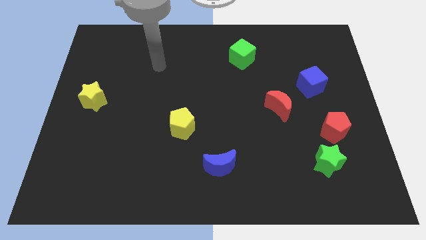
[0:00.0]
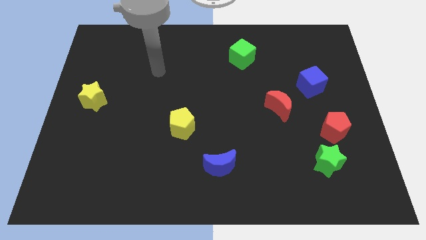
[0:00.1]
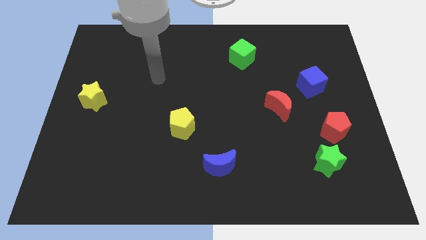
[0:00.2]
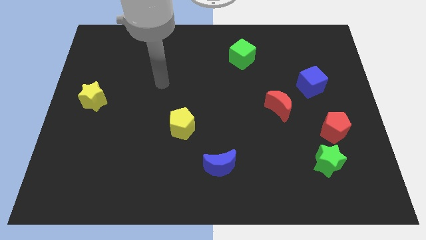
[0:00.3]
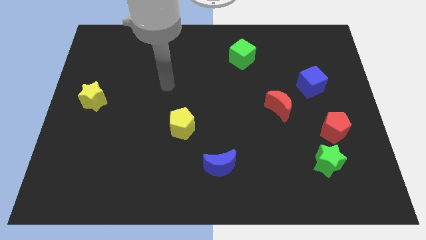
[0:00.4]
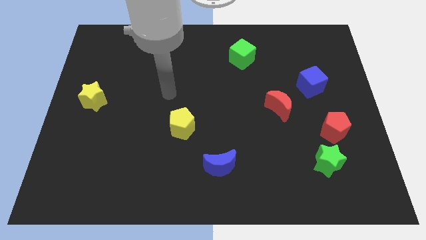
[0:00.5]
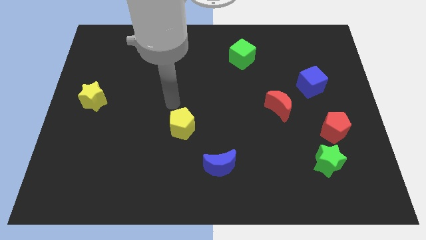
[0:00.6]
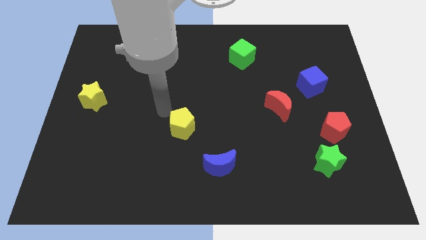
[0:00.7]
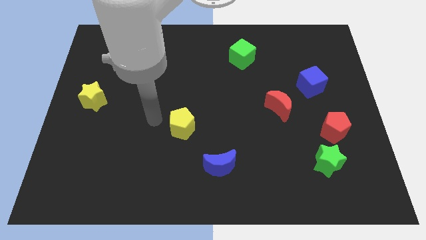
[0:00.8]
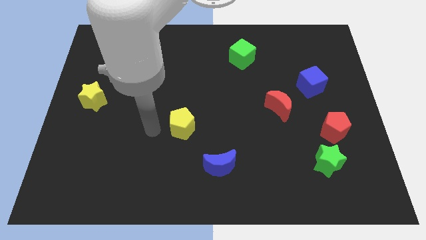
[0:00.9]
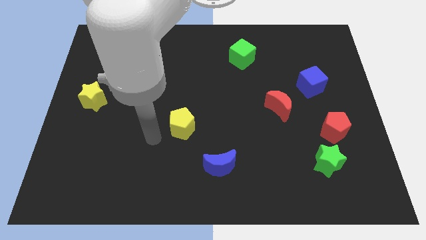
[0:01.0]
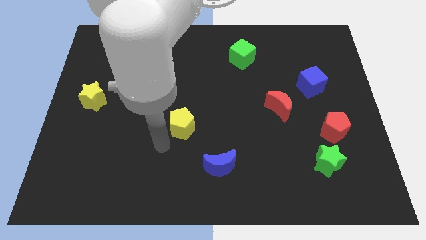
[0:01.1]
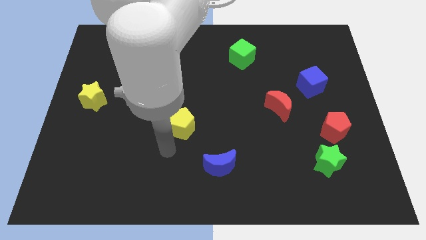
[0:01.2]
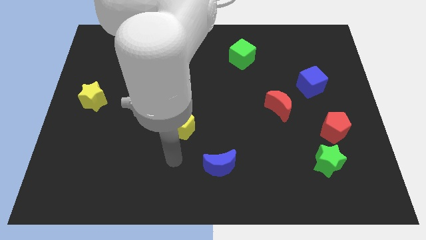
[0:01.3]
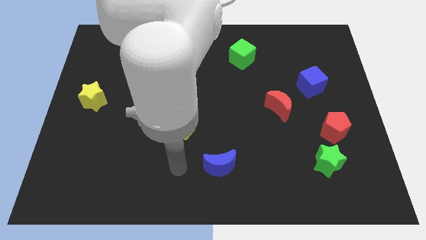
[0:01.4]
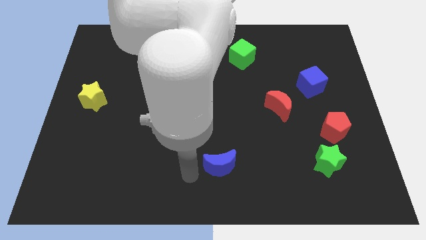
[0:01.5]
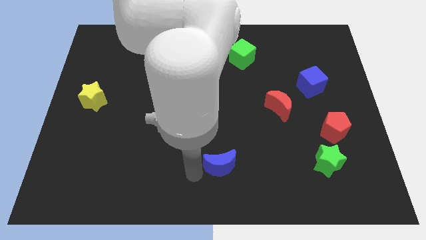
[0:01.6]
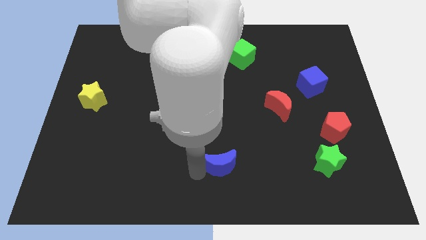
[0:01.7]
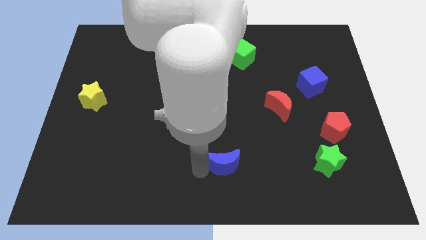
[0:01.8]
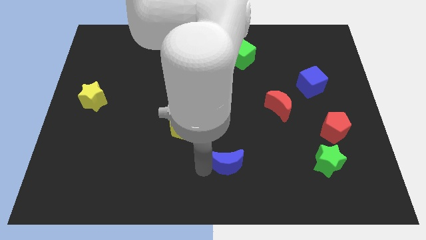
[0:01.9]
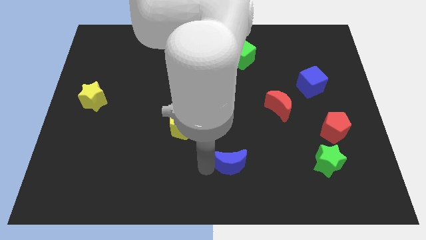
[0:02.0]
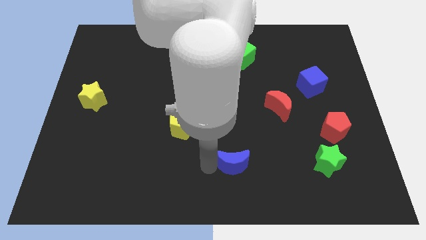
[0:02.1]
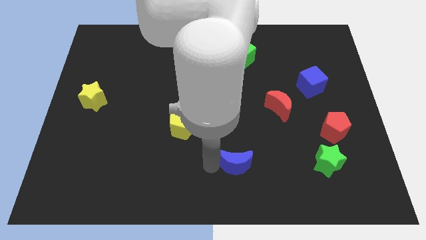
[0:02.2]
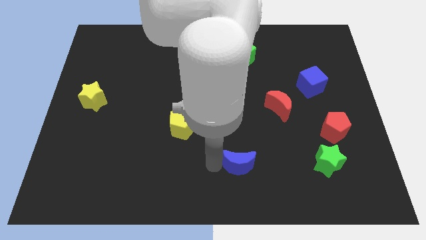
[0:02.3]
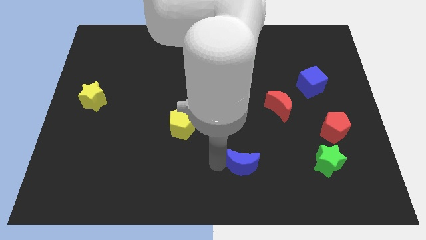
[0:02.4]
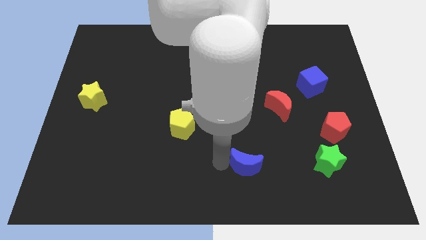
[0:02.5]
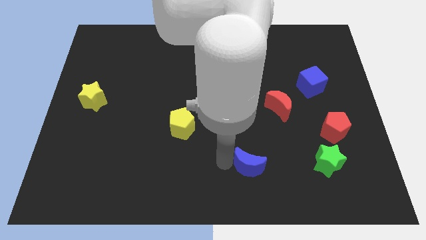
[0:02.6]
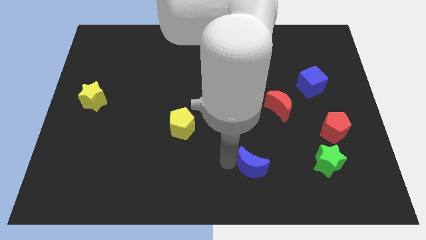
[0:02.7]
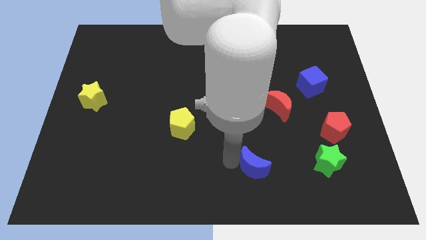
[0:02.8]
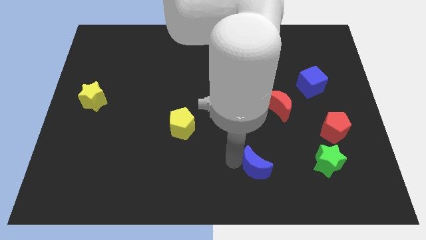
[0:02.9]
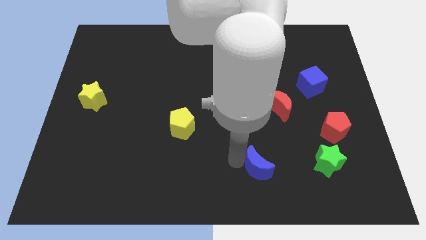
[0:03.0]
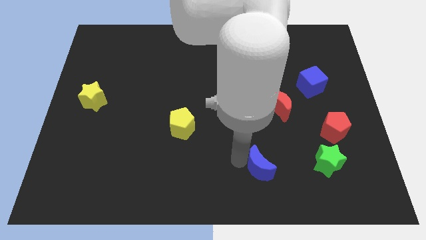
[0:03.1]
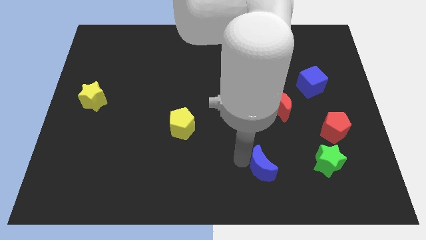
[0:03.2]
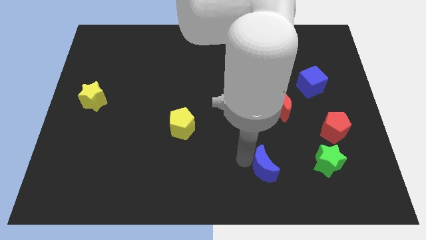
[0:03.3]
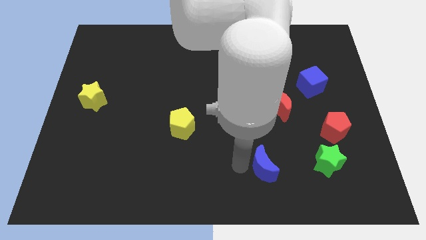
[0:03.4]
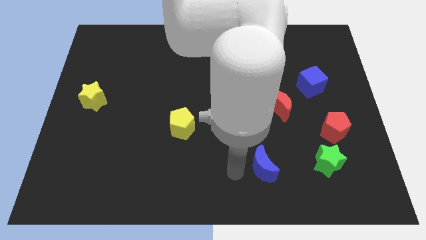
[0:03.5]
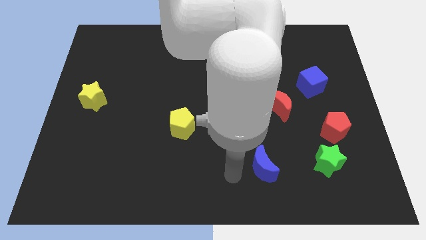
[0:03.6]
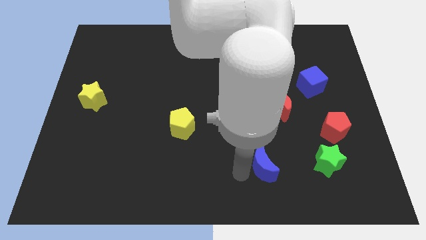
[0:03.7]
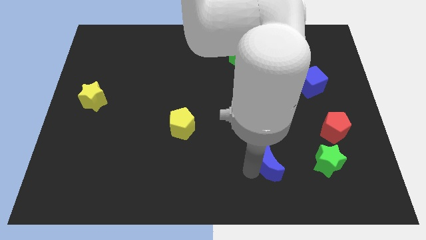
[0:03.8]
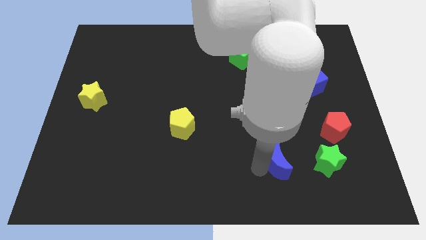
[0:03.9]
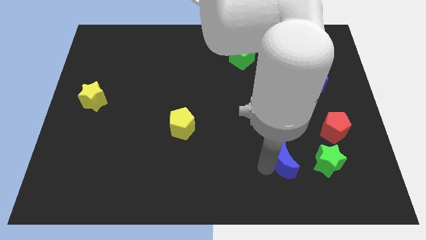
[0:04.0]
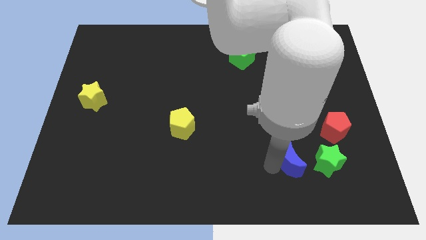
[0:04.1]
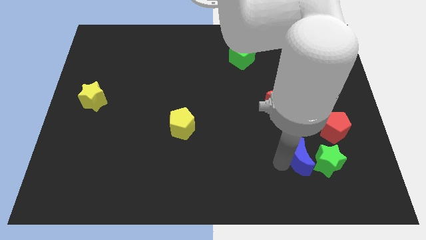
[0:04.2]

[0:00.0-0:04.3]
move the blue moon next to the green star

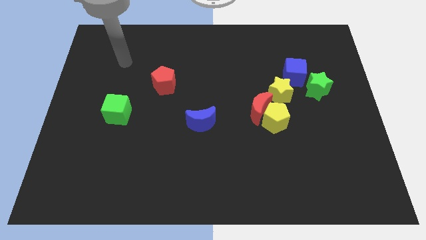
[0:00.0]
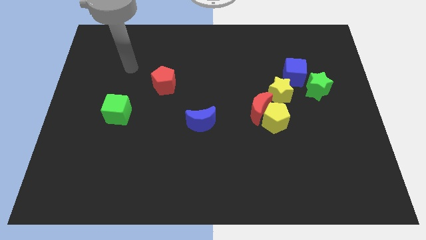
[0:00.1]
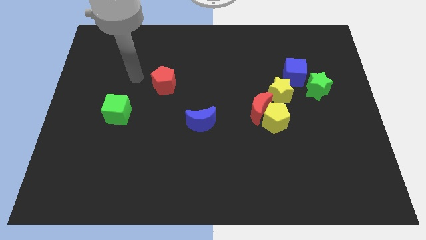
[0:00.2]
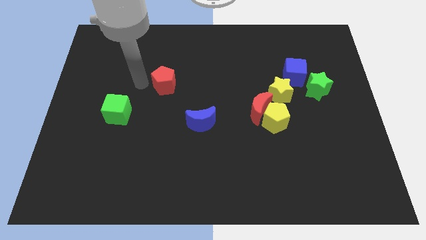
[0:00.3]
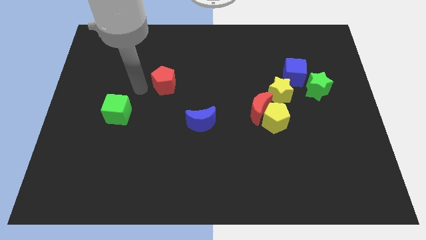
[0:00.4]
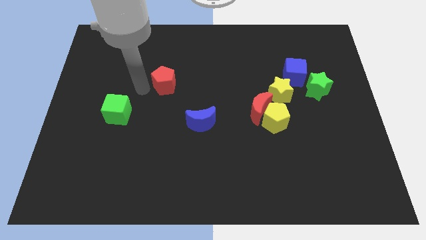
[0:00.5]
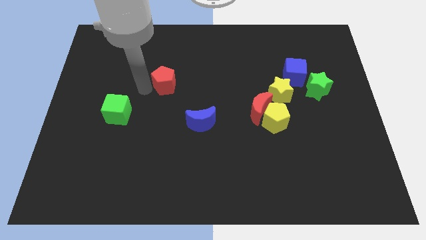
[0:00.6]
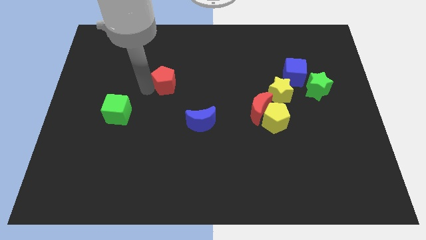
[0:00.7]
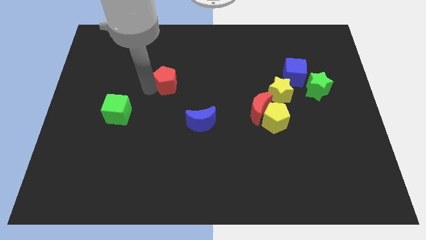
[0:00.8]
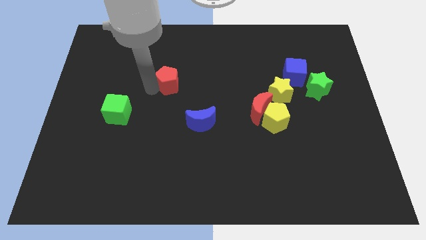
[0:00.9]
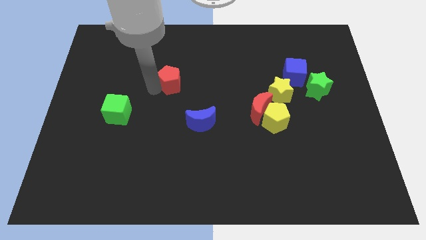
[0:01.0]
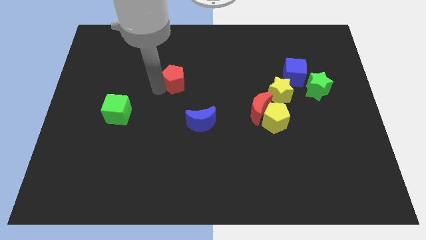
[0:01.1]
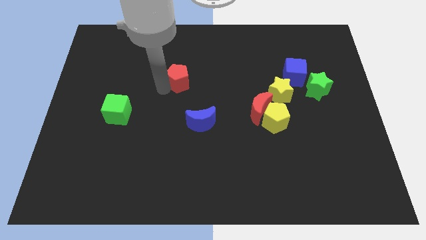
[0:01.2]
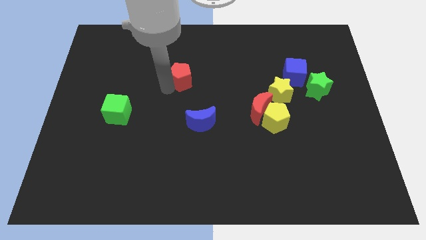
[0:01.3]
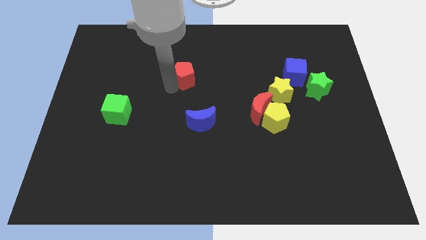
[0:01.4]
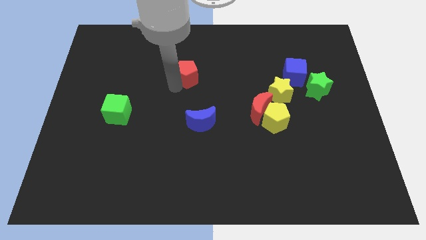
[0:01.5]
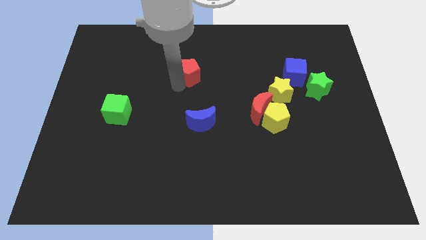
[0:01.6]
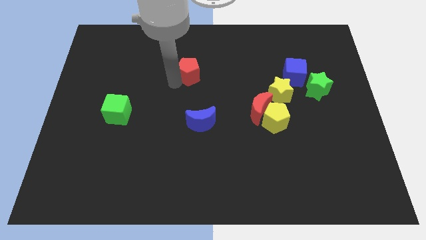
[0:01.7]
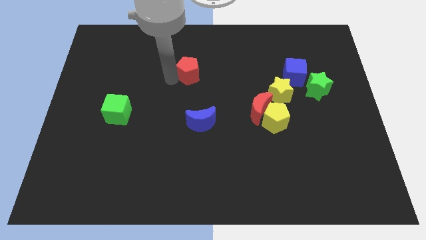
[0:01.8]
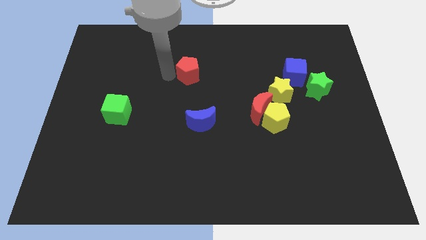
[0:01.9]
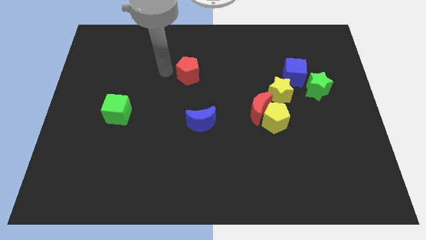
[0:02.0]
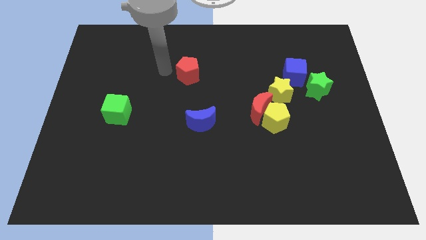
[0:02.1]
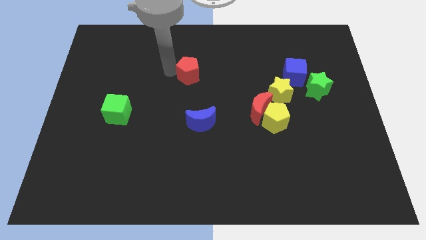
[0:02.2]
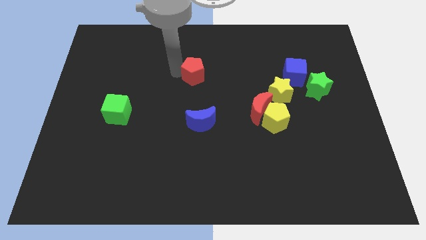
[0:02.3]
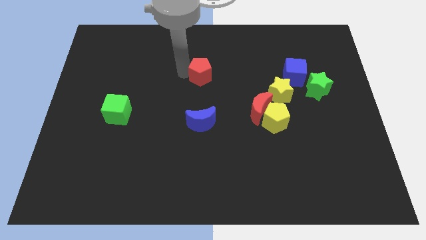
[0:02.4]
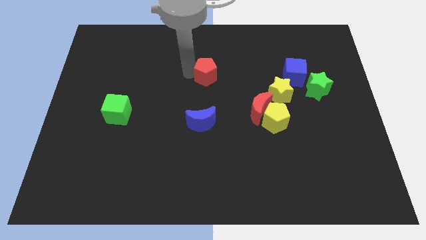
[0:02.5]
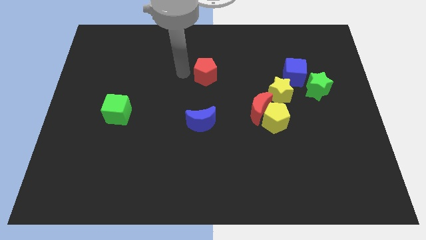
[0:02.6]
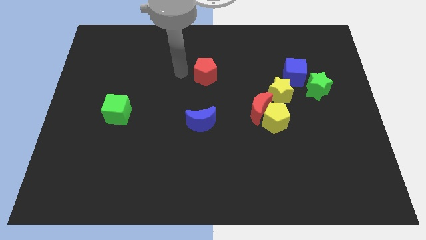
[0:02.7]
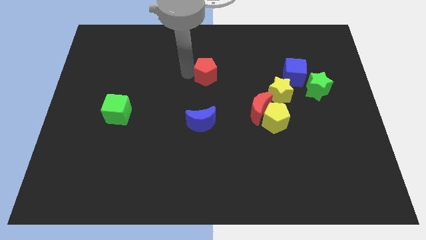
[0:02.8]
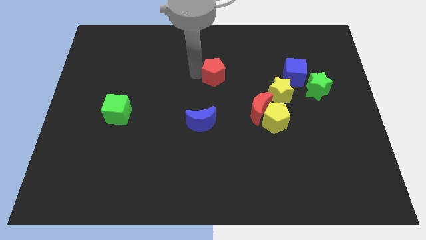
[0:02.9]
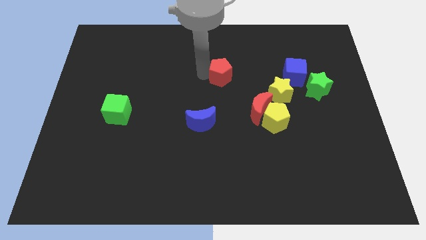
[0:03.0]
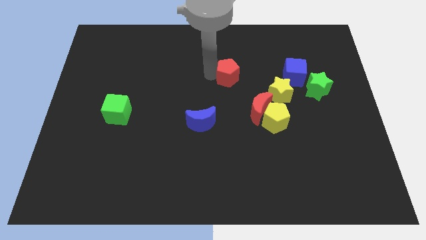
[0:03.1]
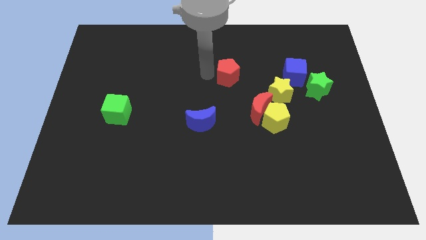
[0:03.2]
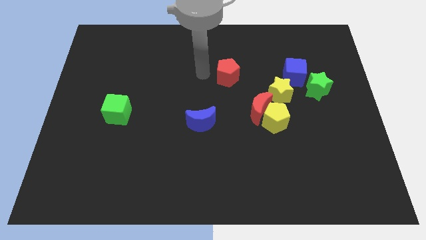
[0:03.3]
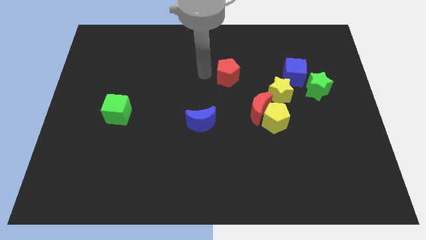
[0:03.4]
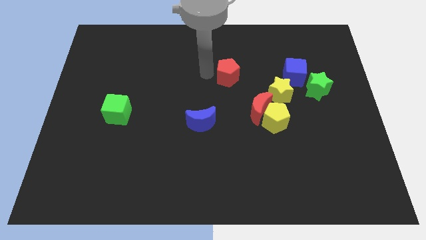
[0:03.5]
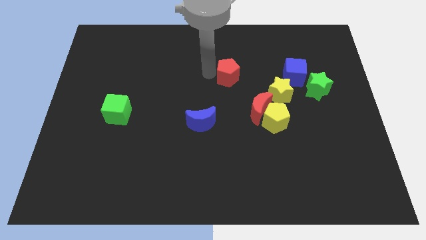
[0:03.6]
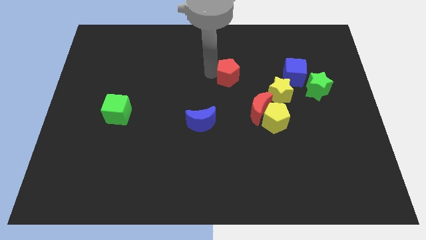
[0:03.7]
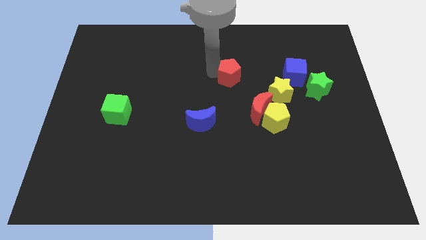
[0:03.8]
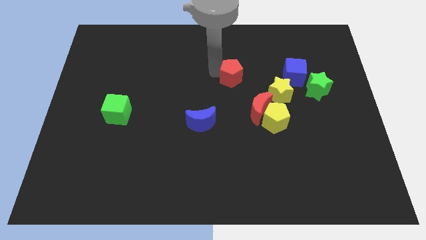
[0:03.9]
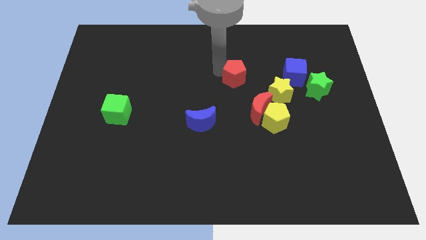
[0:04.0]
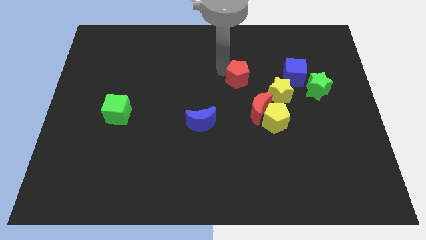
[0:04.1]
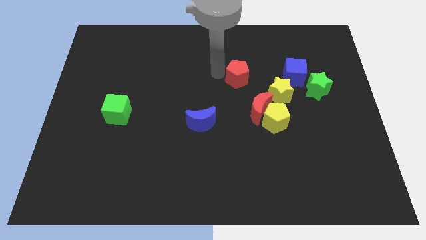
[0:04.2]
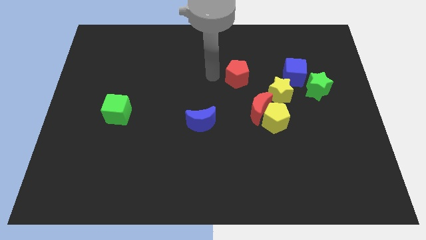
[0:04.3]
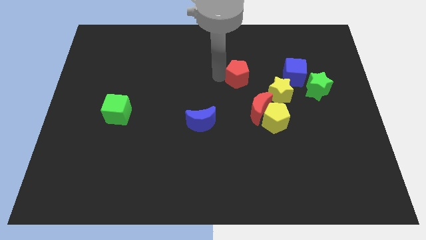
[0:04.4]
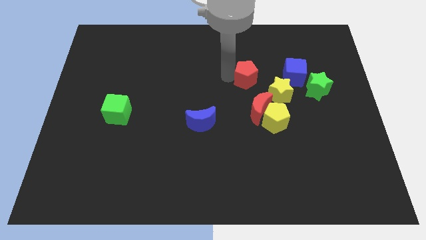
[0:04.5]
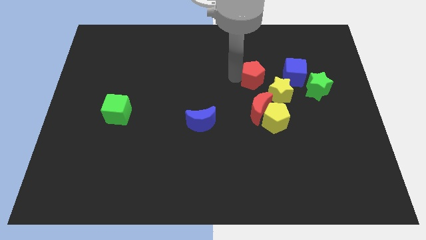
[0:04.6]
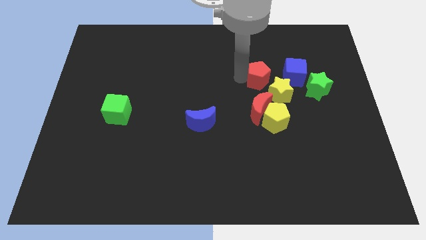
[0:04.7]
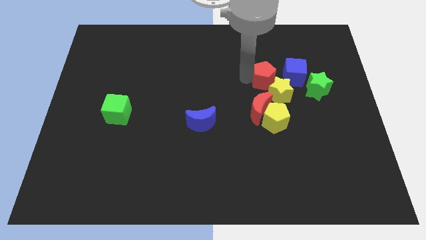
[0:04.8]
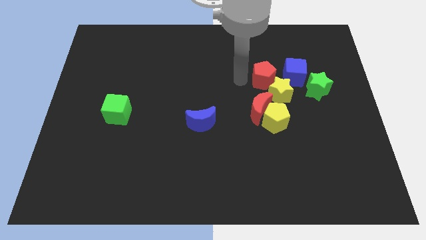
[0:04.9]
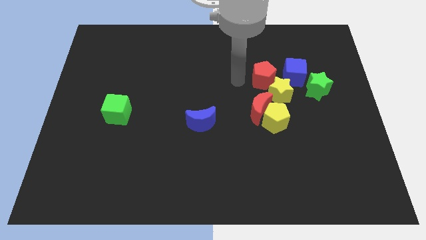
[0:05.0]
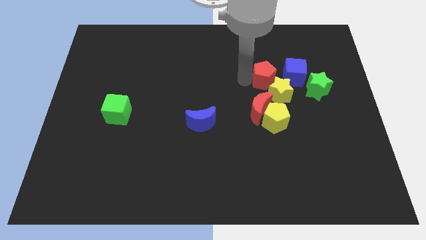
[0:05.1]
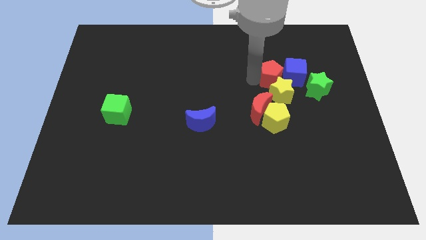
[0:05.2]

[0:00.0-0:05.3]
slide the red pentagon close to the blue cube
